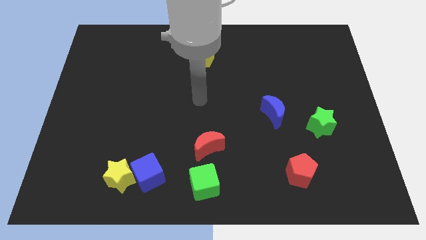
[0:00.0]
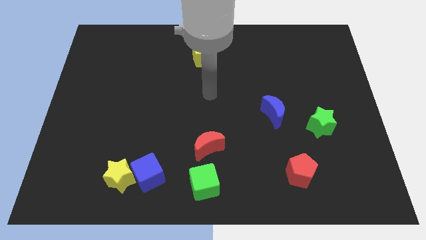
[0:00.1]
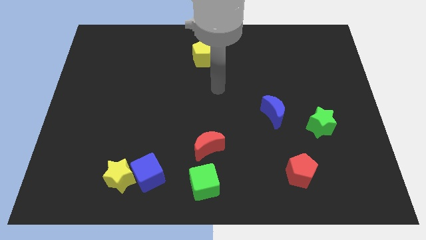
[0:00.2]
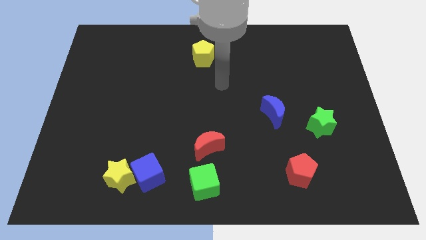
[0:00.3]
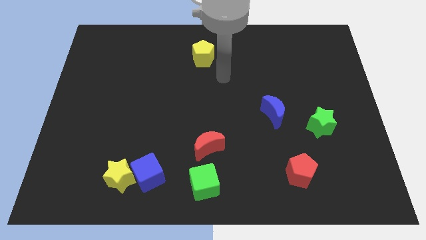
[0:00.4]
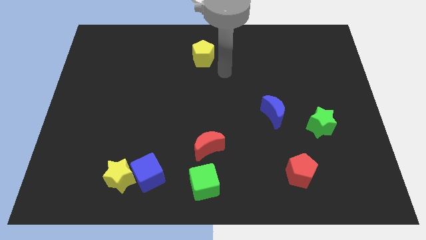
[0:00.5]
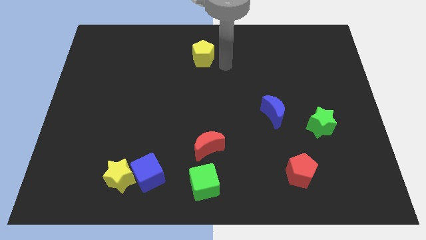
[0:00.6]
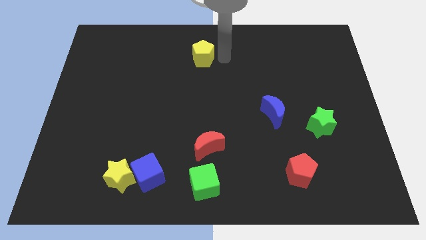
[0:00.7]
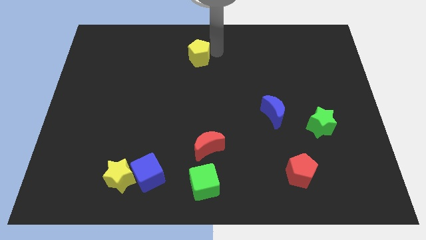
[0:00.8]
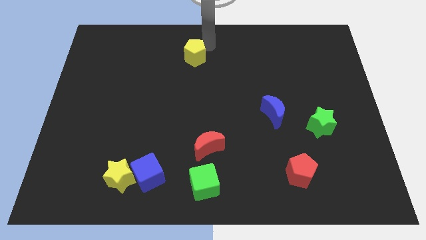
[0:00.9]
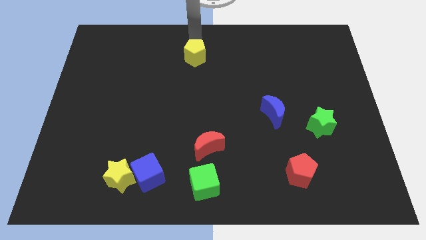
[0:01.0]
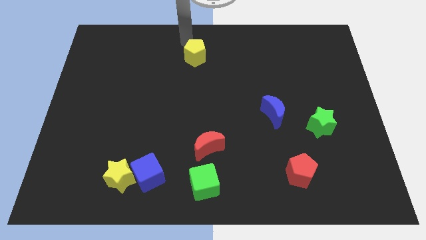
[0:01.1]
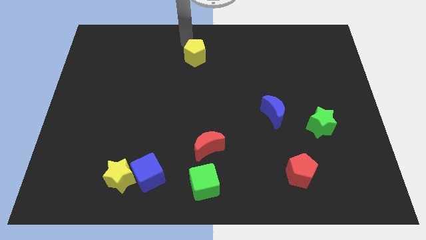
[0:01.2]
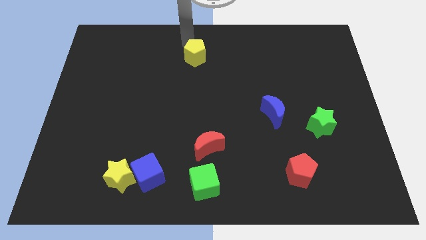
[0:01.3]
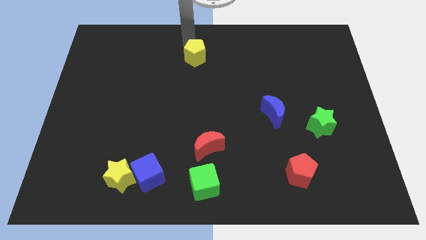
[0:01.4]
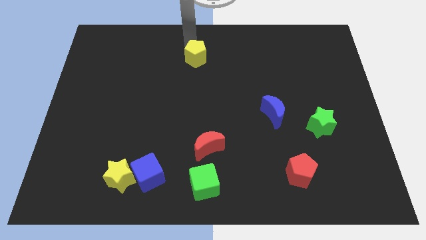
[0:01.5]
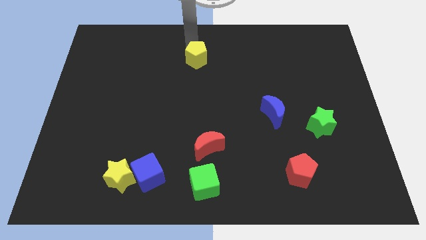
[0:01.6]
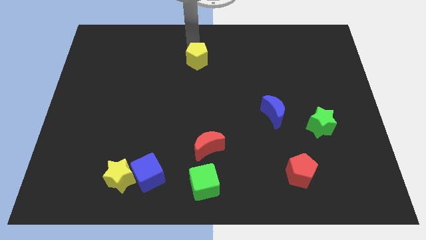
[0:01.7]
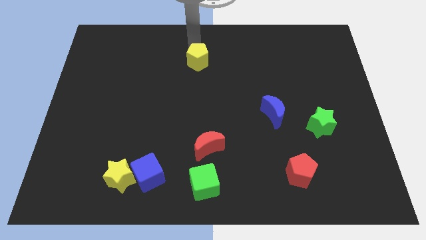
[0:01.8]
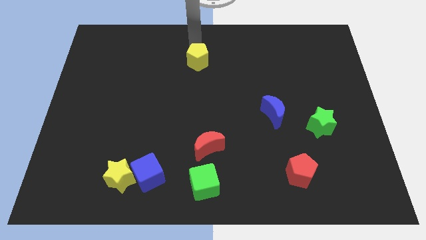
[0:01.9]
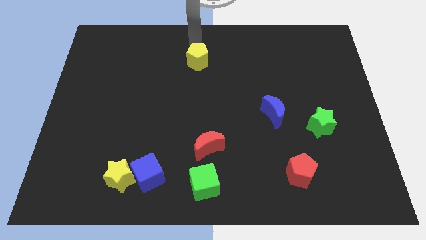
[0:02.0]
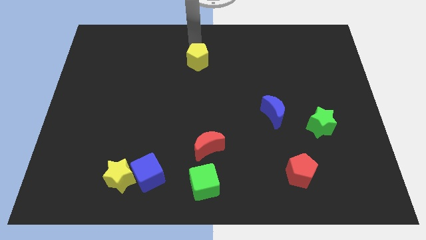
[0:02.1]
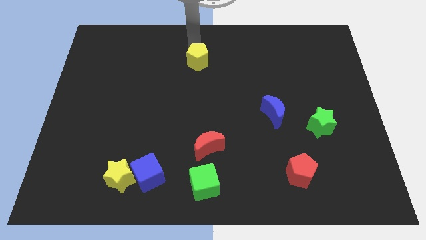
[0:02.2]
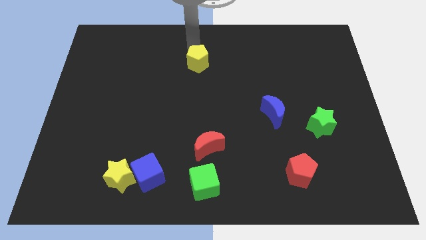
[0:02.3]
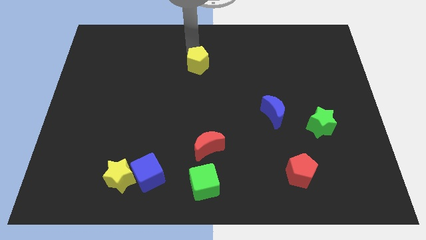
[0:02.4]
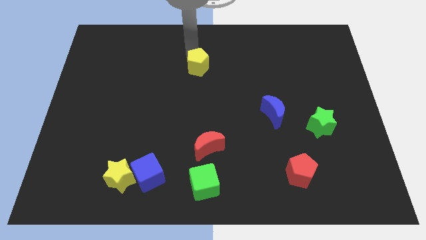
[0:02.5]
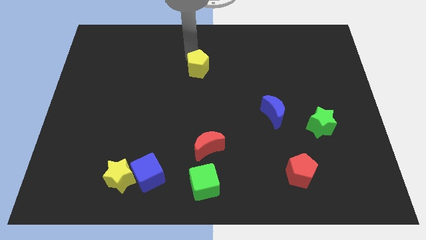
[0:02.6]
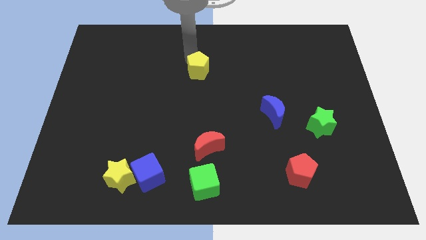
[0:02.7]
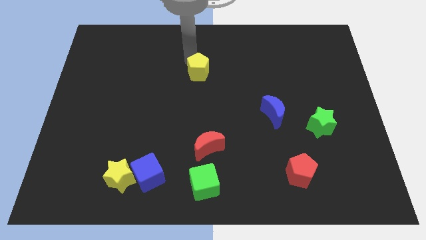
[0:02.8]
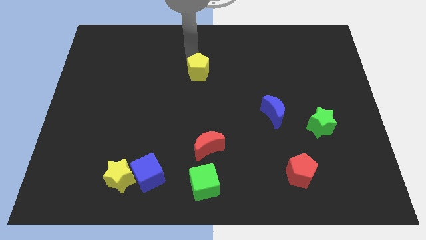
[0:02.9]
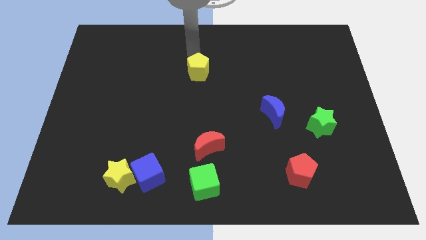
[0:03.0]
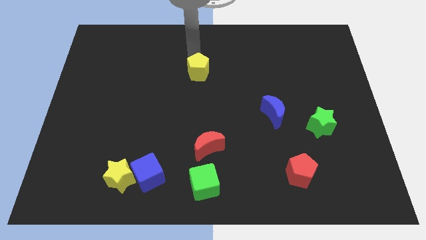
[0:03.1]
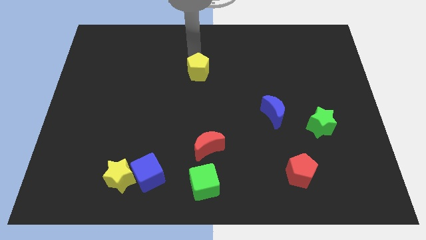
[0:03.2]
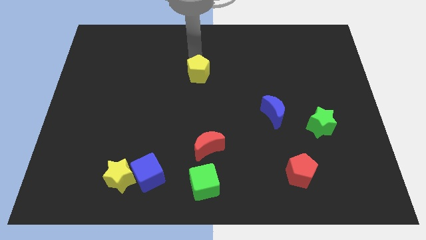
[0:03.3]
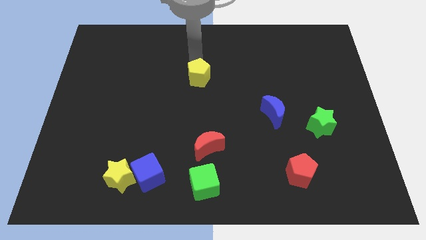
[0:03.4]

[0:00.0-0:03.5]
slide the yellow pentagon downwards a bit

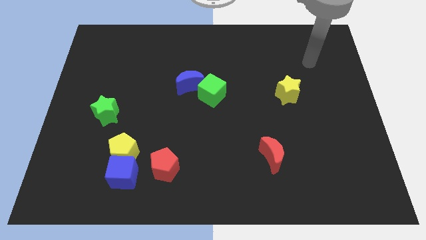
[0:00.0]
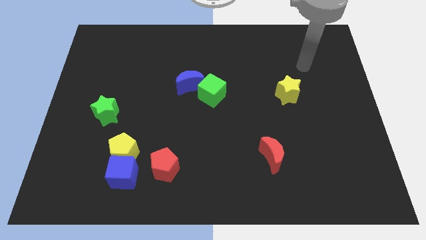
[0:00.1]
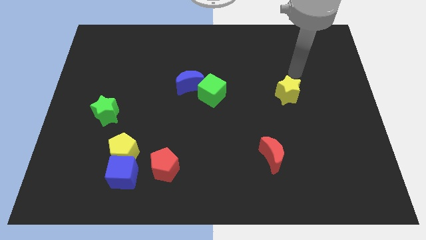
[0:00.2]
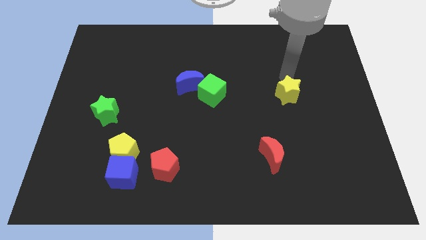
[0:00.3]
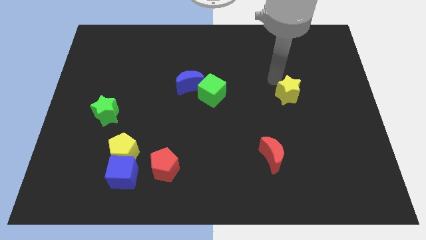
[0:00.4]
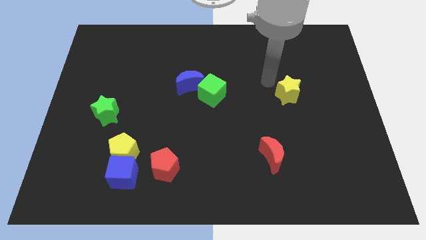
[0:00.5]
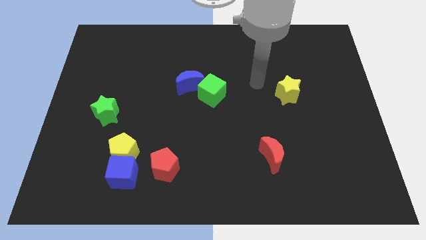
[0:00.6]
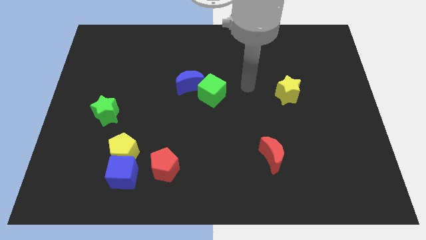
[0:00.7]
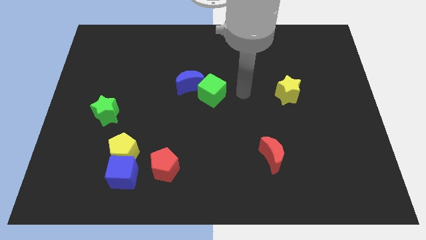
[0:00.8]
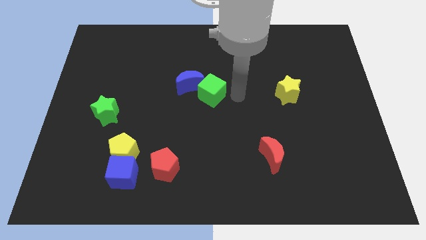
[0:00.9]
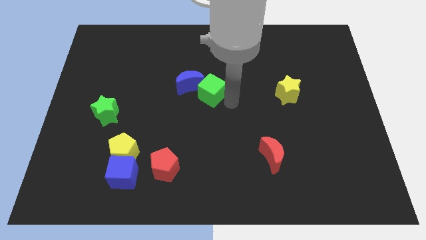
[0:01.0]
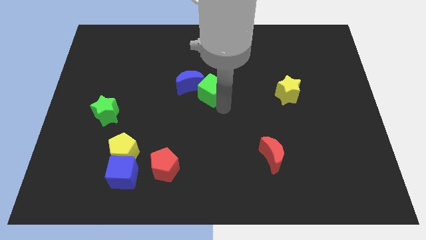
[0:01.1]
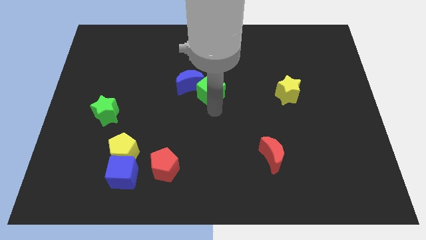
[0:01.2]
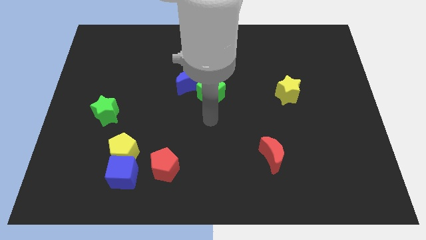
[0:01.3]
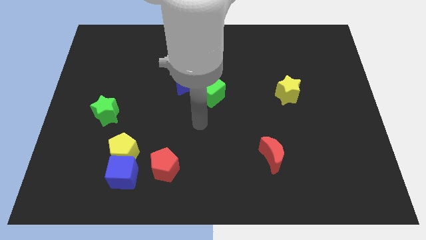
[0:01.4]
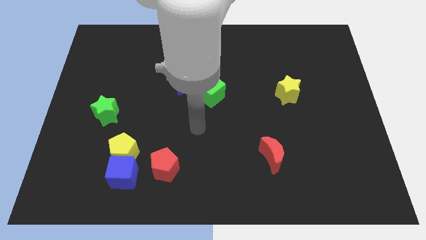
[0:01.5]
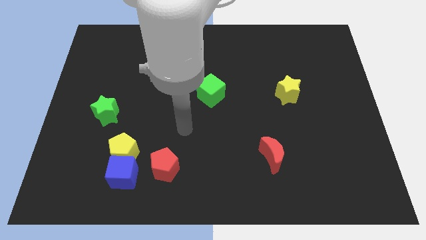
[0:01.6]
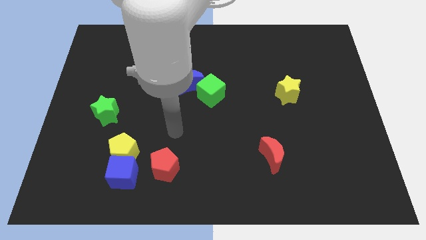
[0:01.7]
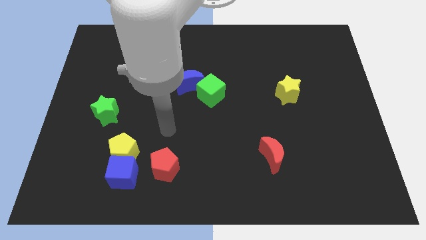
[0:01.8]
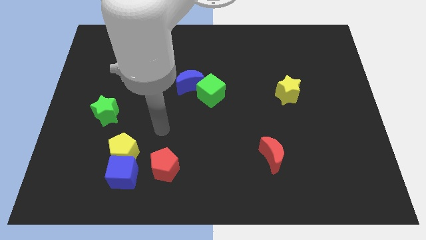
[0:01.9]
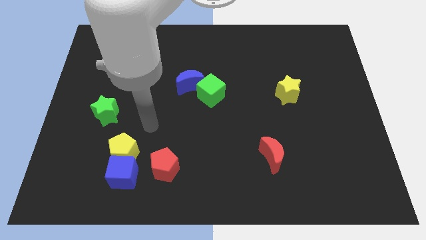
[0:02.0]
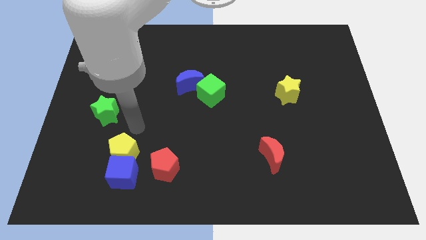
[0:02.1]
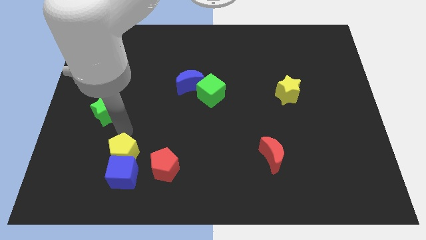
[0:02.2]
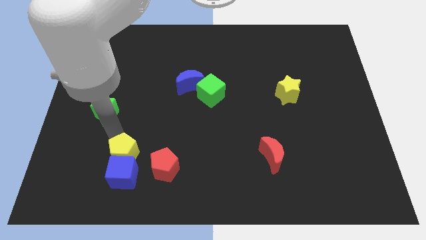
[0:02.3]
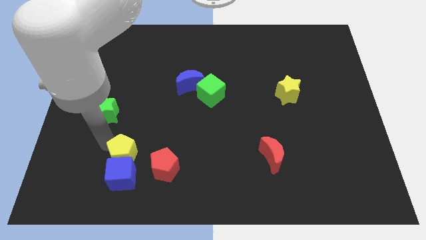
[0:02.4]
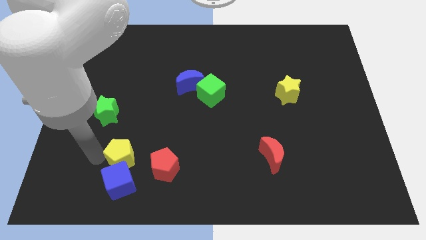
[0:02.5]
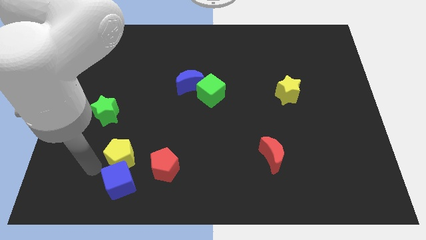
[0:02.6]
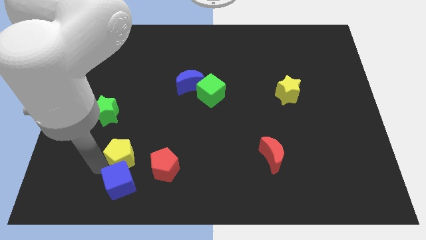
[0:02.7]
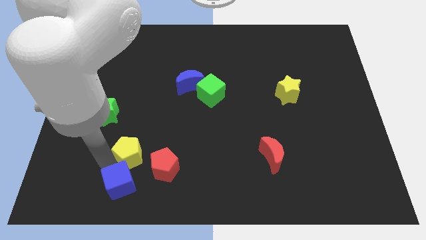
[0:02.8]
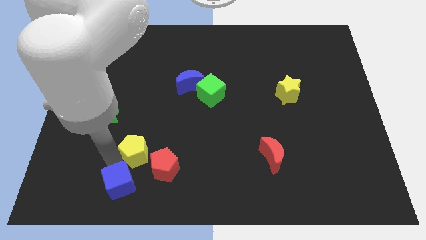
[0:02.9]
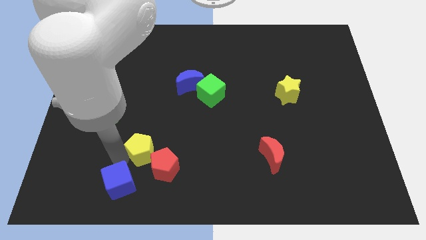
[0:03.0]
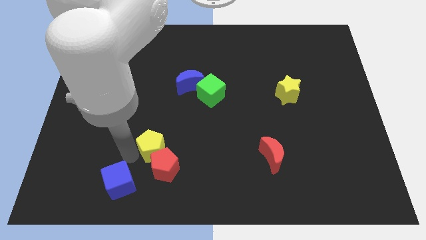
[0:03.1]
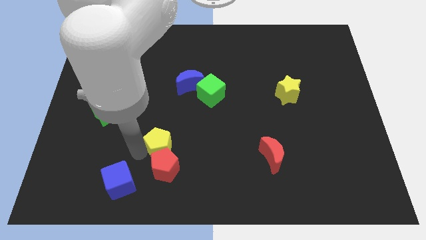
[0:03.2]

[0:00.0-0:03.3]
push the yellow pentagon a little to the right

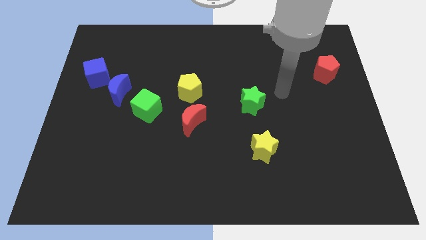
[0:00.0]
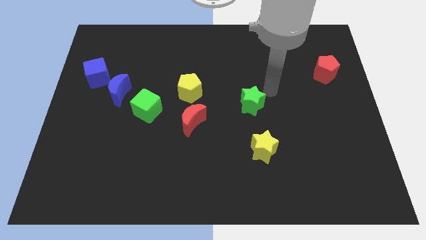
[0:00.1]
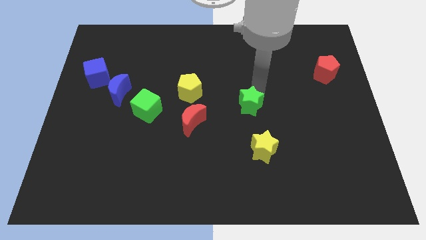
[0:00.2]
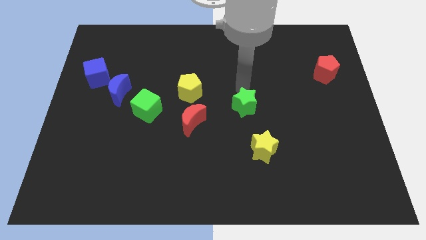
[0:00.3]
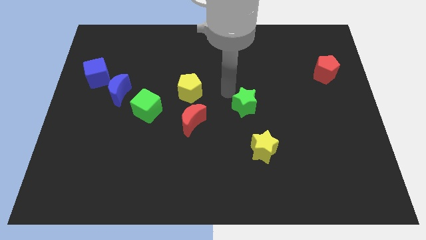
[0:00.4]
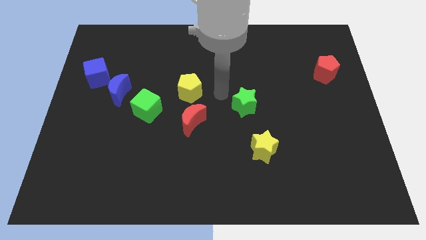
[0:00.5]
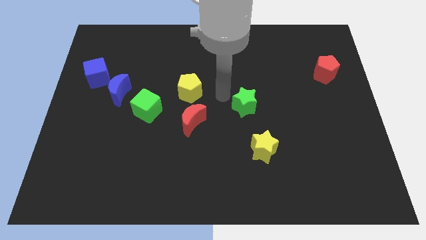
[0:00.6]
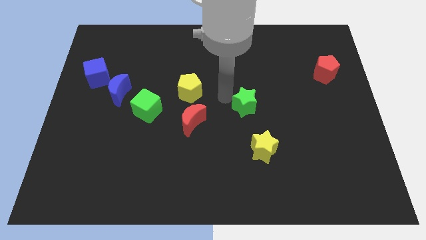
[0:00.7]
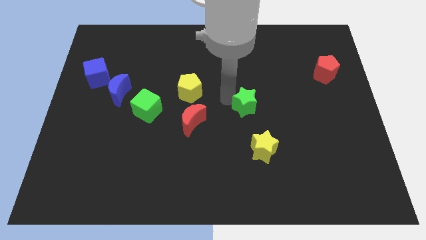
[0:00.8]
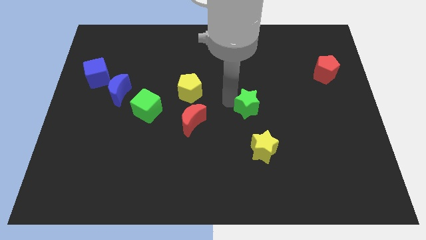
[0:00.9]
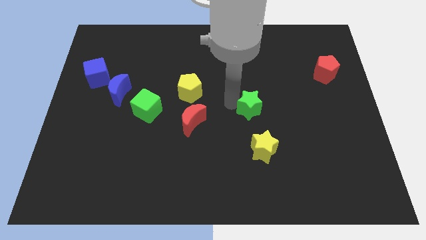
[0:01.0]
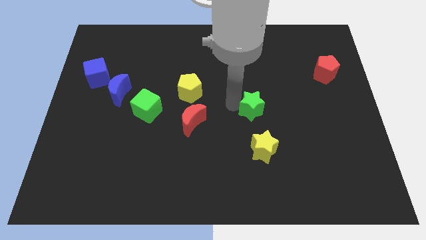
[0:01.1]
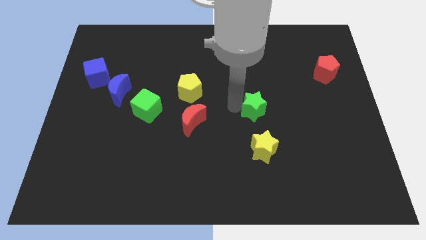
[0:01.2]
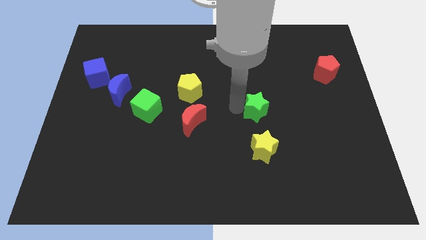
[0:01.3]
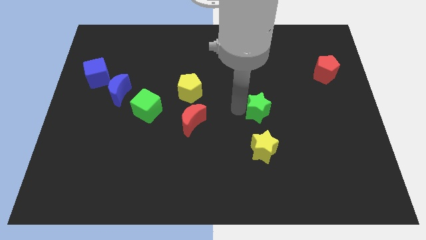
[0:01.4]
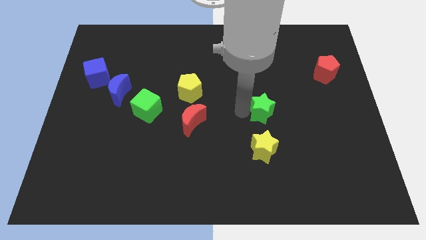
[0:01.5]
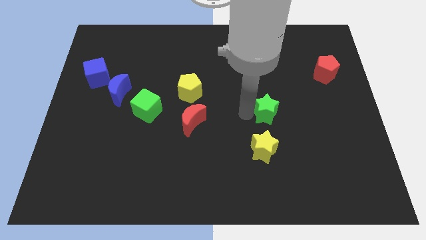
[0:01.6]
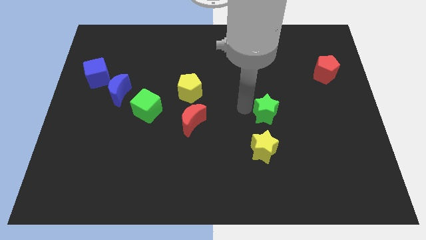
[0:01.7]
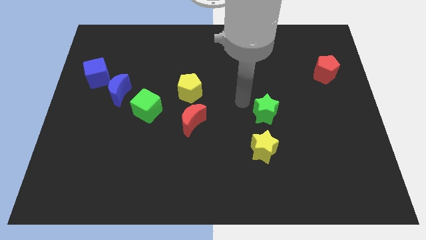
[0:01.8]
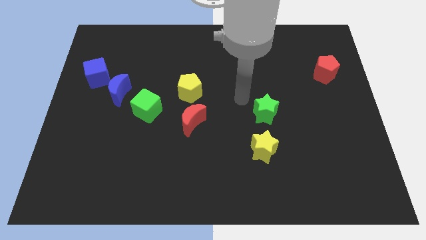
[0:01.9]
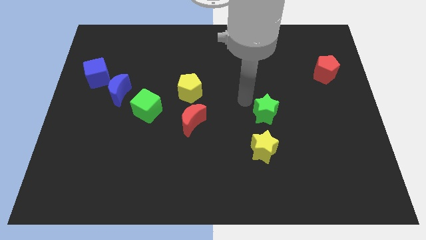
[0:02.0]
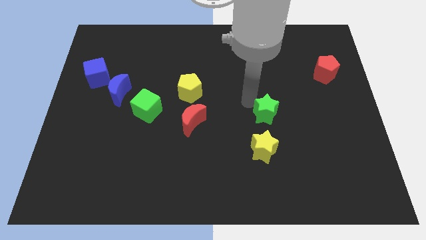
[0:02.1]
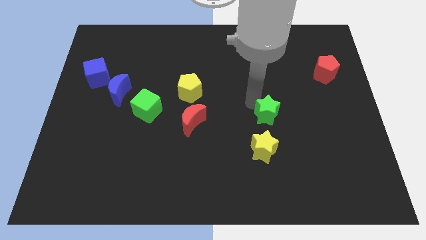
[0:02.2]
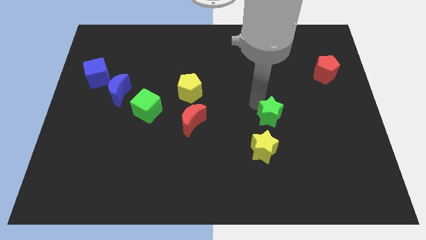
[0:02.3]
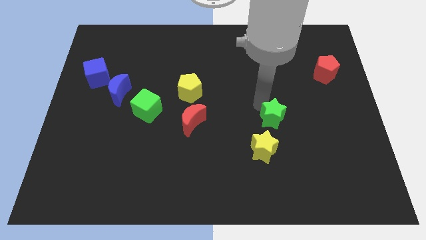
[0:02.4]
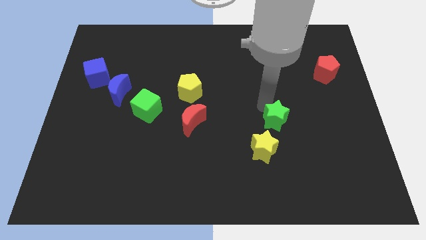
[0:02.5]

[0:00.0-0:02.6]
slide the green star down and then to the right slightly
